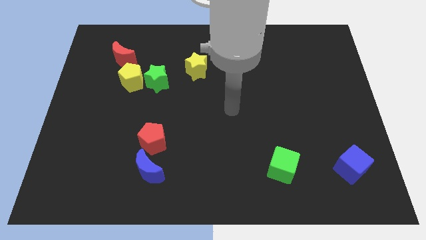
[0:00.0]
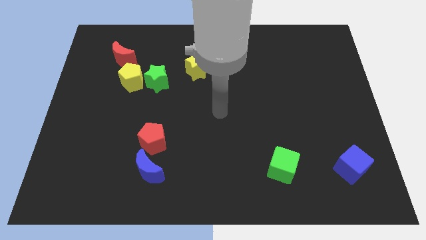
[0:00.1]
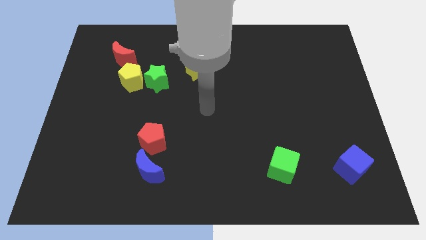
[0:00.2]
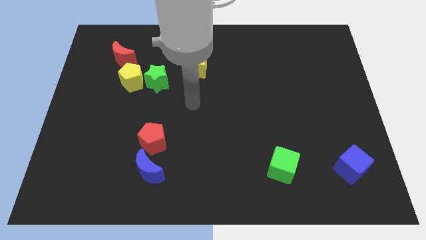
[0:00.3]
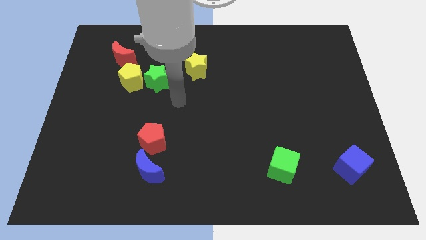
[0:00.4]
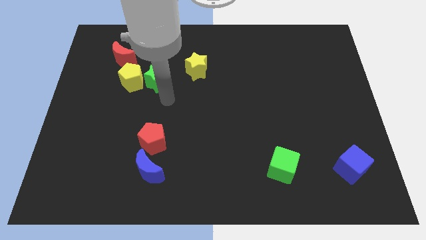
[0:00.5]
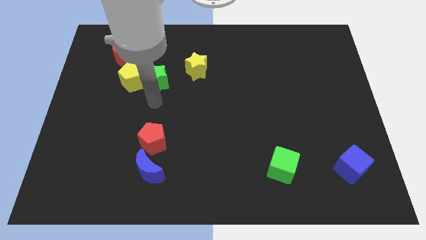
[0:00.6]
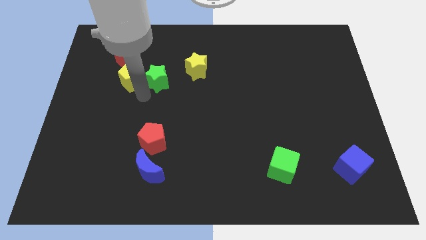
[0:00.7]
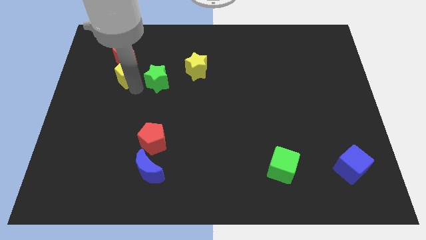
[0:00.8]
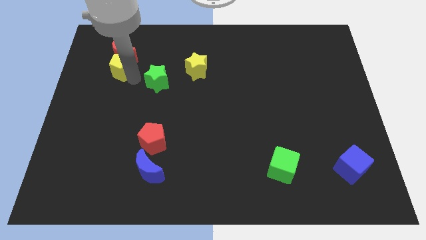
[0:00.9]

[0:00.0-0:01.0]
separate the green star from the yellow pentagon

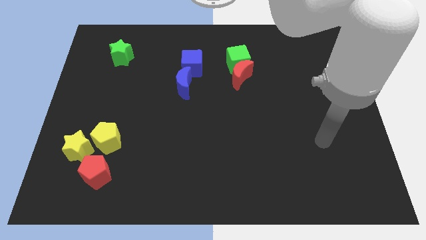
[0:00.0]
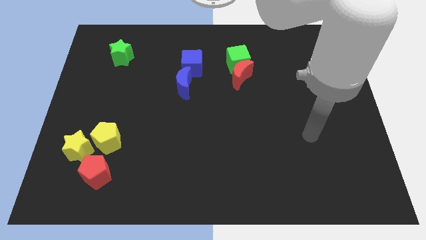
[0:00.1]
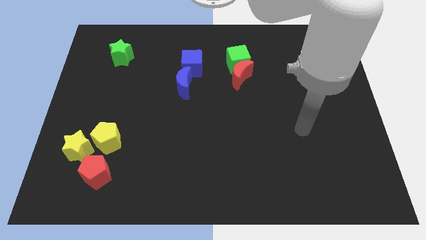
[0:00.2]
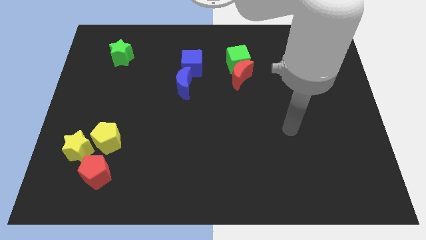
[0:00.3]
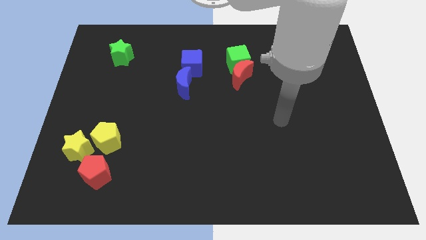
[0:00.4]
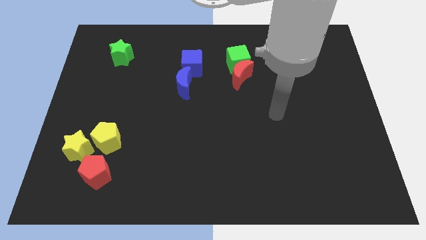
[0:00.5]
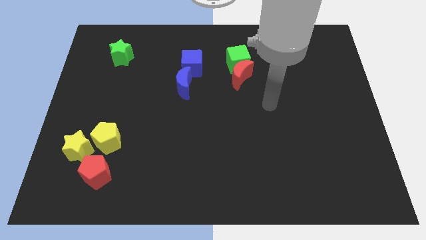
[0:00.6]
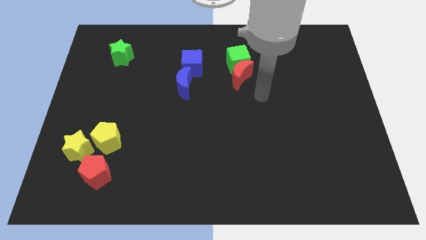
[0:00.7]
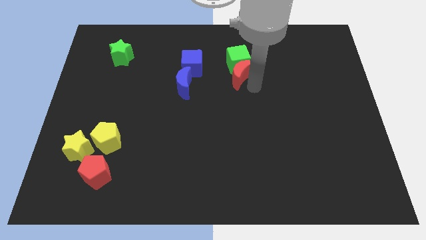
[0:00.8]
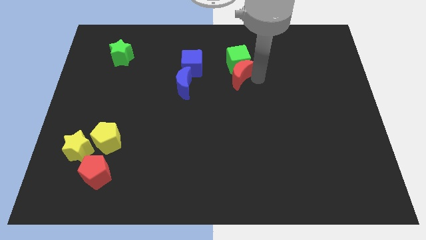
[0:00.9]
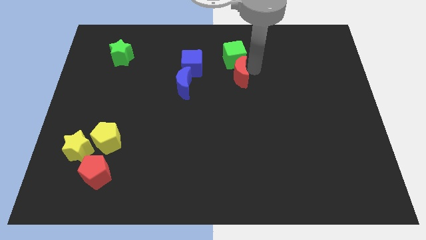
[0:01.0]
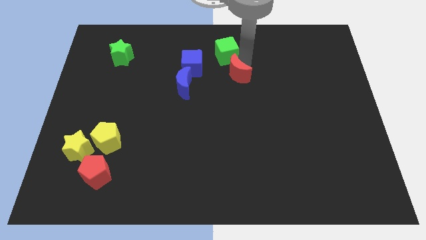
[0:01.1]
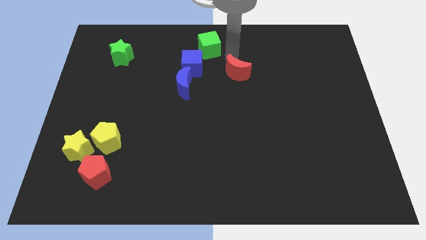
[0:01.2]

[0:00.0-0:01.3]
separate the red moon from the green cube

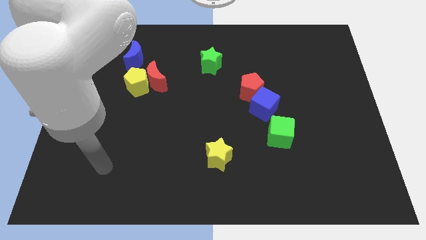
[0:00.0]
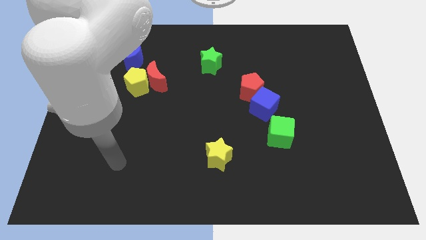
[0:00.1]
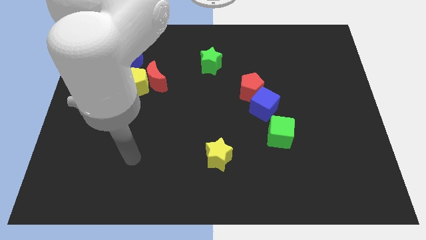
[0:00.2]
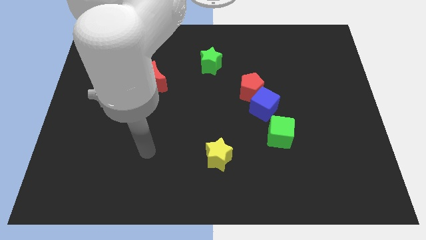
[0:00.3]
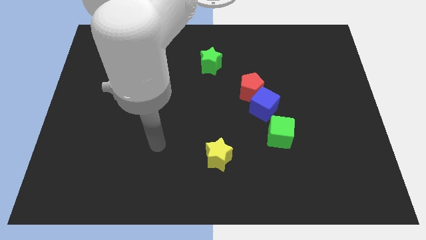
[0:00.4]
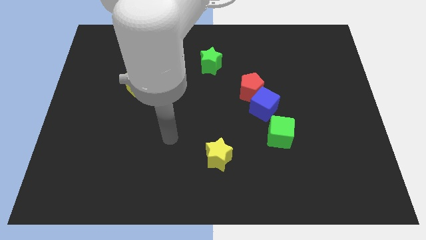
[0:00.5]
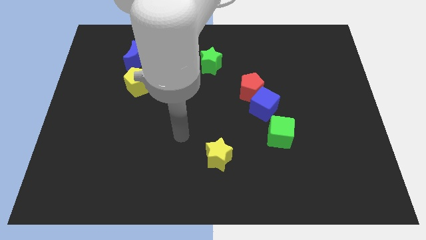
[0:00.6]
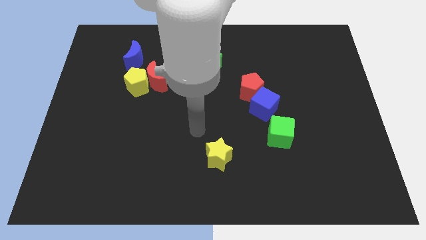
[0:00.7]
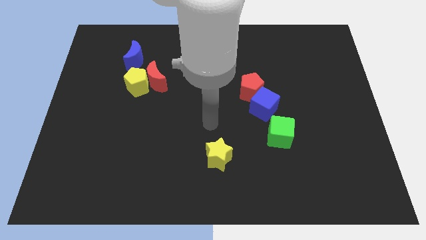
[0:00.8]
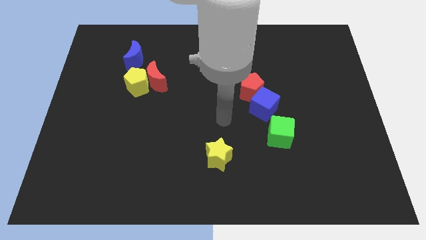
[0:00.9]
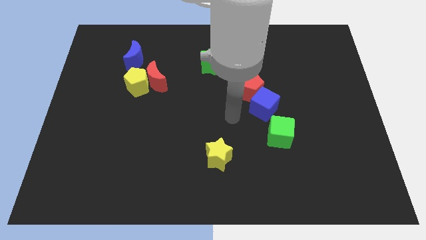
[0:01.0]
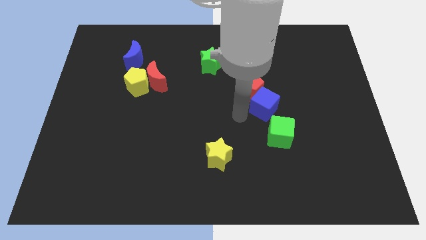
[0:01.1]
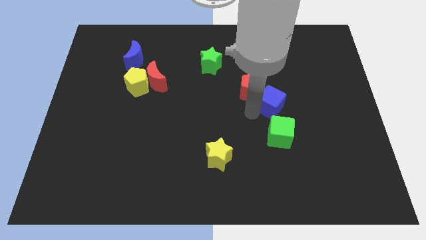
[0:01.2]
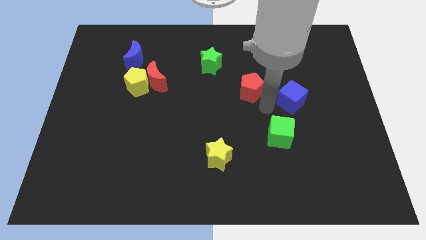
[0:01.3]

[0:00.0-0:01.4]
move the red pentagon away from the blue cube

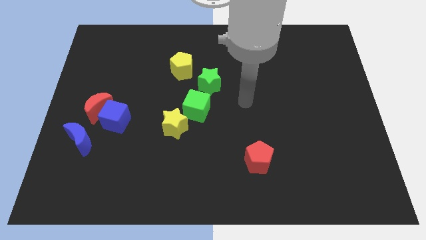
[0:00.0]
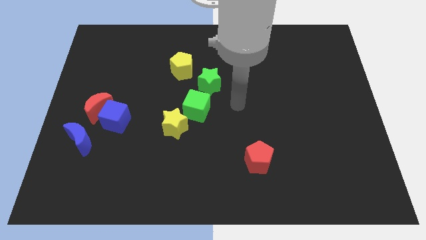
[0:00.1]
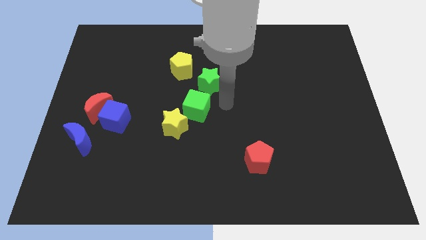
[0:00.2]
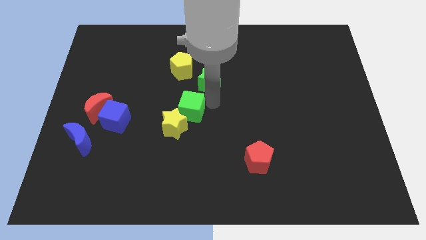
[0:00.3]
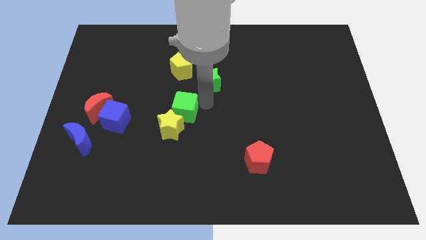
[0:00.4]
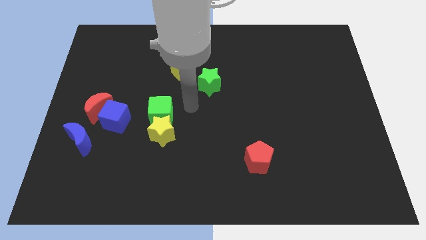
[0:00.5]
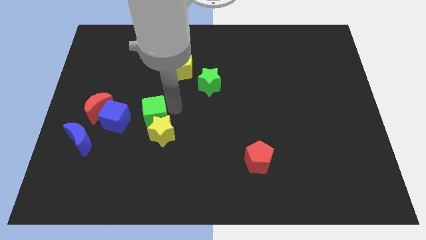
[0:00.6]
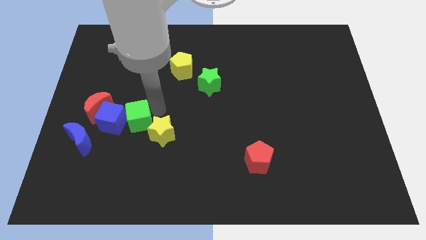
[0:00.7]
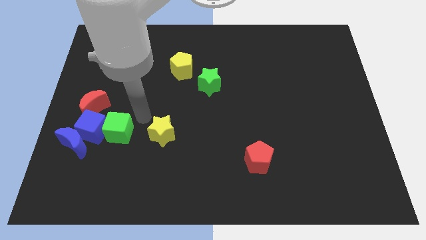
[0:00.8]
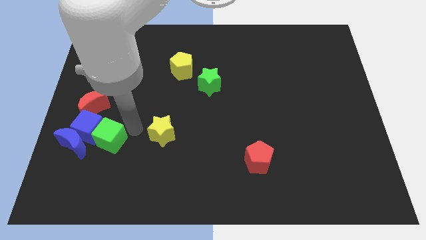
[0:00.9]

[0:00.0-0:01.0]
move the yellow star away from the green cube

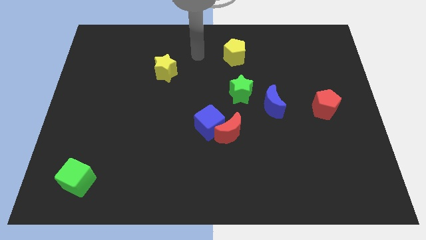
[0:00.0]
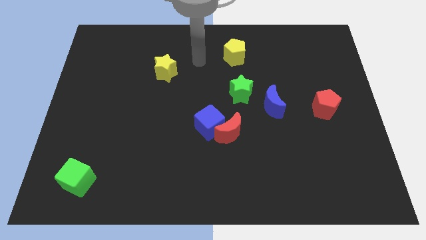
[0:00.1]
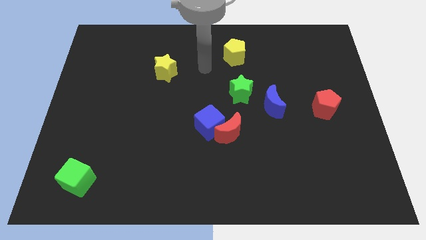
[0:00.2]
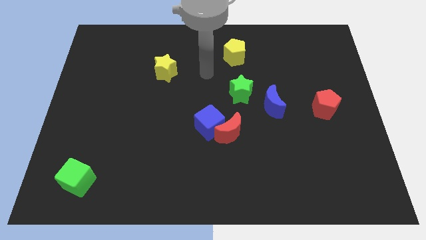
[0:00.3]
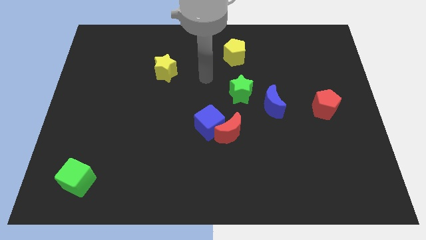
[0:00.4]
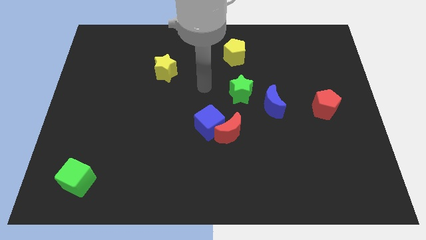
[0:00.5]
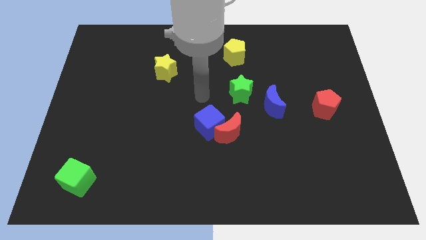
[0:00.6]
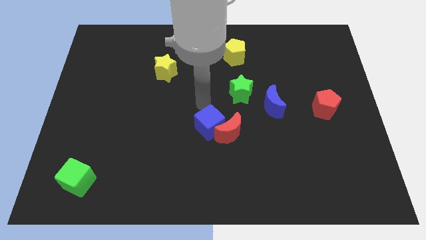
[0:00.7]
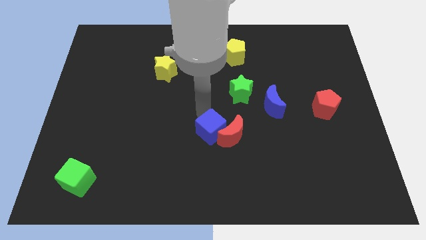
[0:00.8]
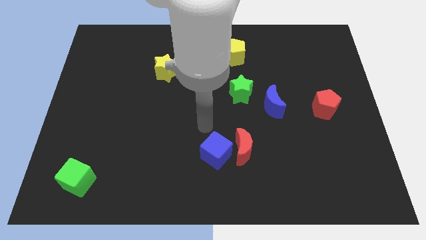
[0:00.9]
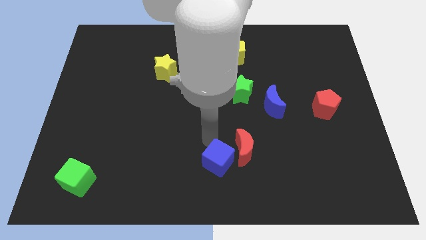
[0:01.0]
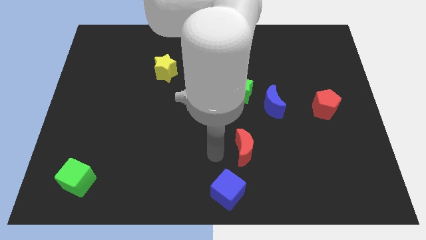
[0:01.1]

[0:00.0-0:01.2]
separate the red moon from the blue cube

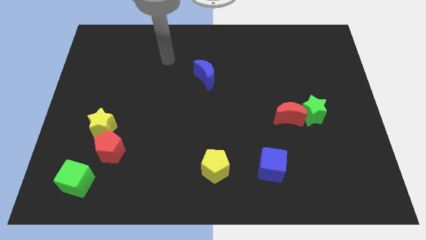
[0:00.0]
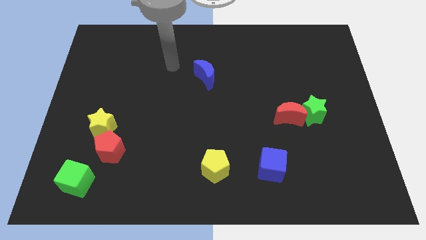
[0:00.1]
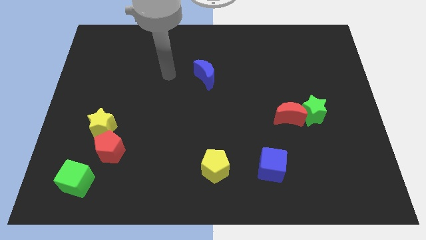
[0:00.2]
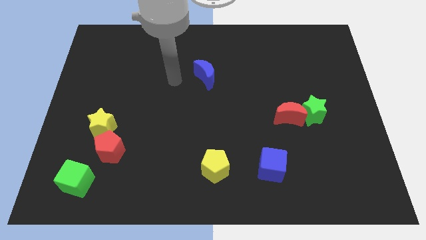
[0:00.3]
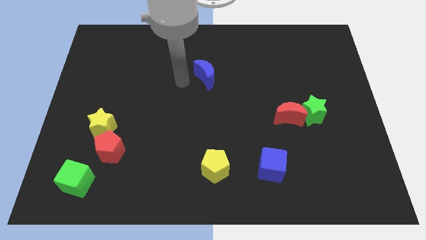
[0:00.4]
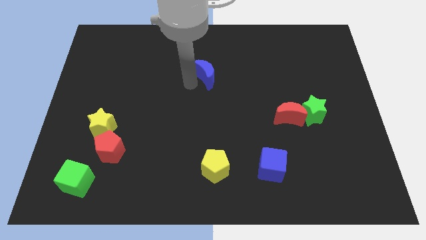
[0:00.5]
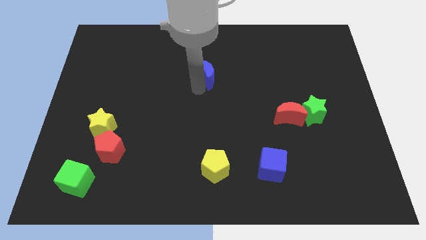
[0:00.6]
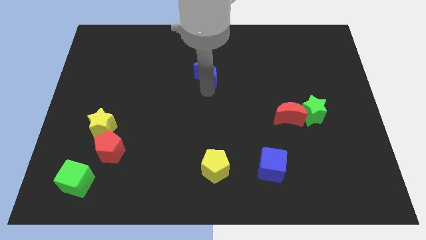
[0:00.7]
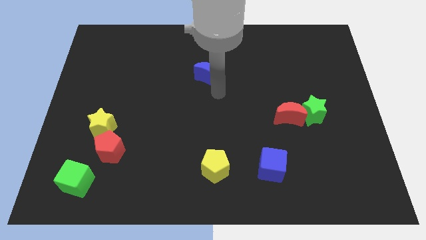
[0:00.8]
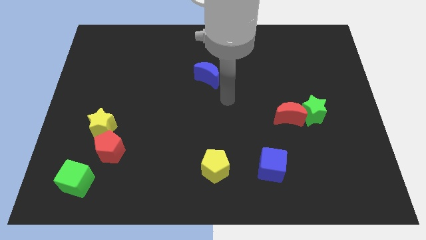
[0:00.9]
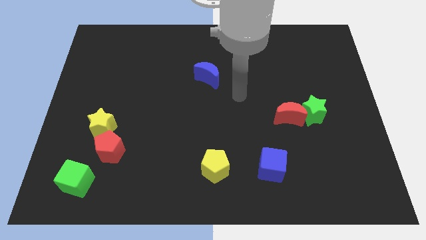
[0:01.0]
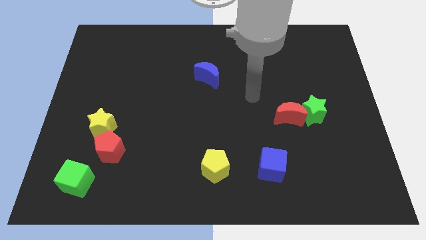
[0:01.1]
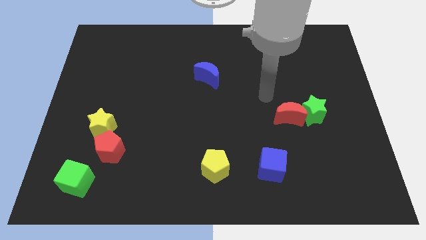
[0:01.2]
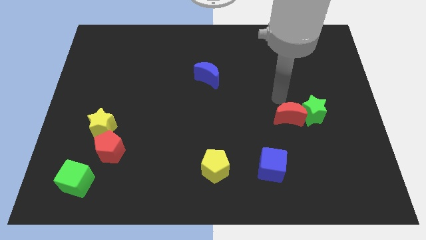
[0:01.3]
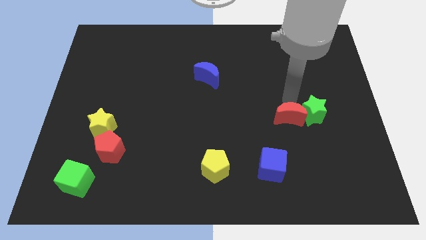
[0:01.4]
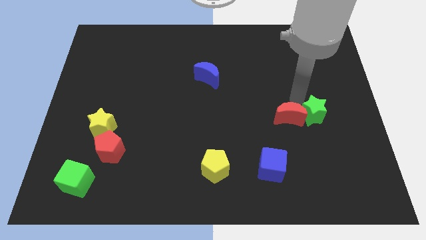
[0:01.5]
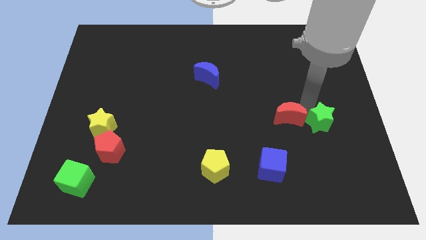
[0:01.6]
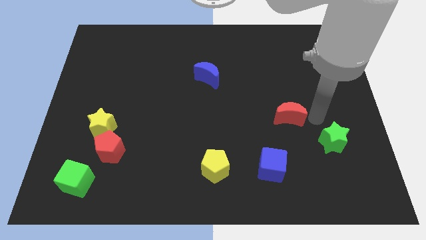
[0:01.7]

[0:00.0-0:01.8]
separate the red moon from the green star

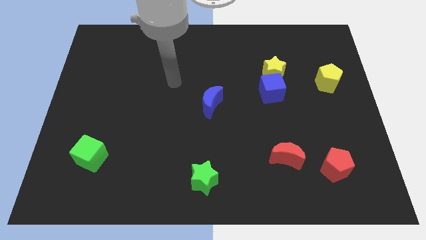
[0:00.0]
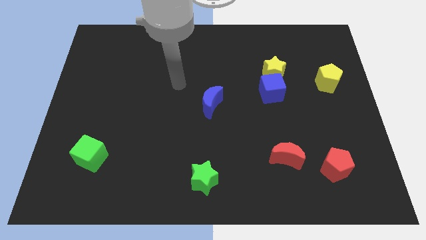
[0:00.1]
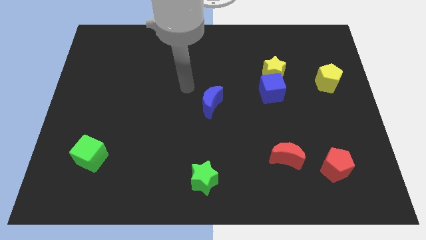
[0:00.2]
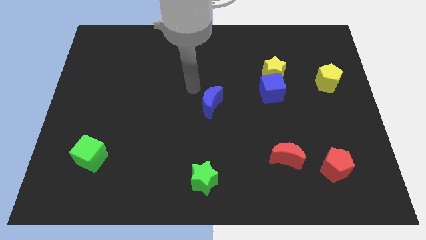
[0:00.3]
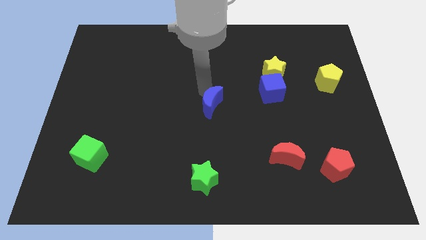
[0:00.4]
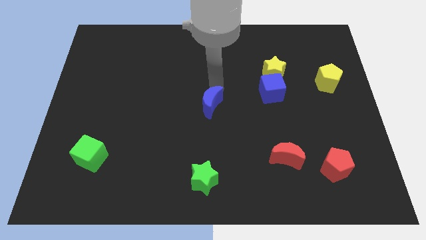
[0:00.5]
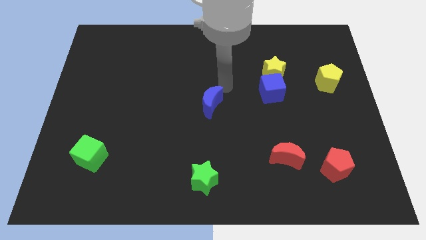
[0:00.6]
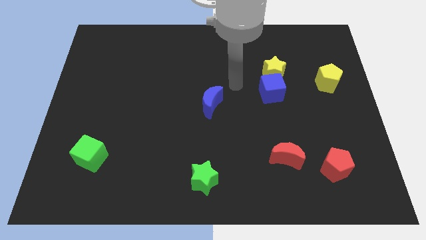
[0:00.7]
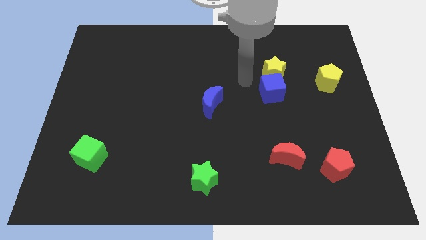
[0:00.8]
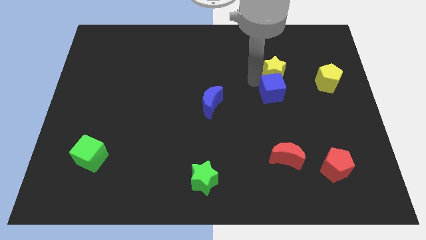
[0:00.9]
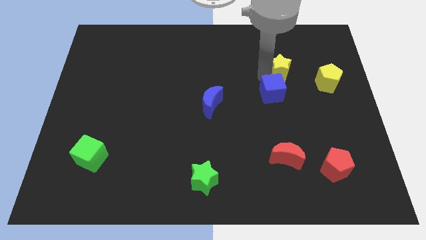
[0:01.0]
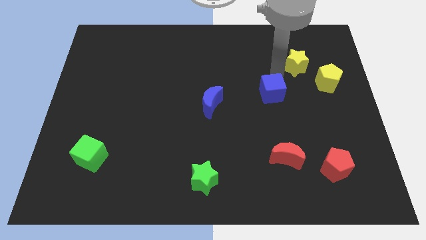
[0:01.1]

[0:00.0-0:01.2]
pull the blue cube apart from the yellow star

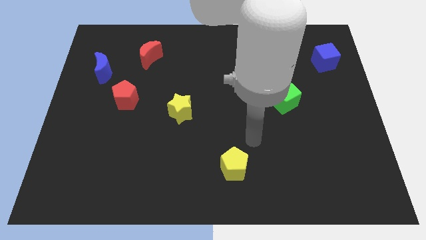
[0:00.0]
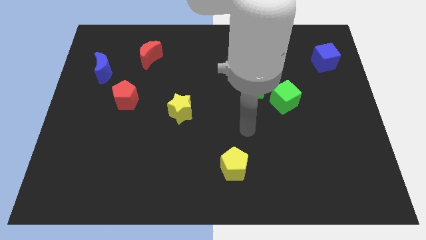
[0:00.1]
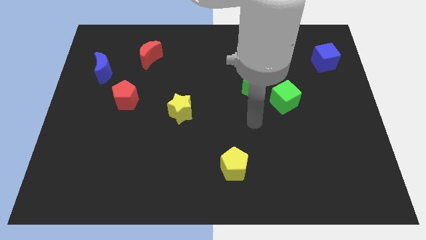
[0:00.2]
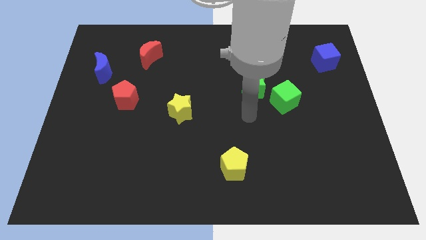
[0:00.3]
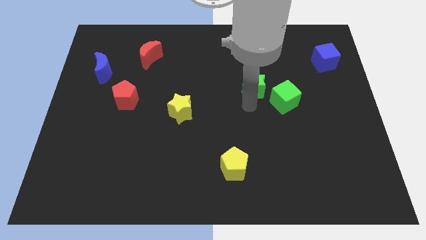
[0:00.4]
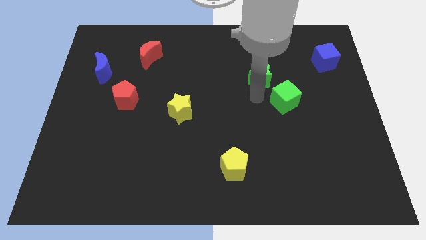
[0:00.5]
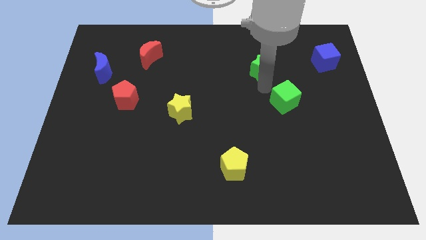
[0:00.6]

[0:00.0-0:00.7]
separate the green cube from the green star
